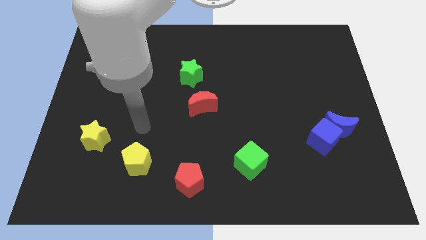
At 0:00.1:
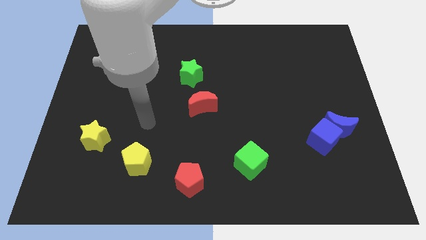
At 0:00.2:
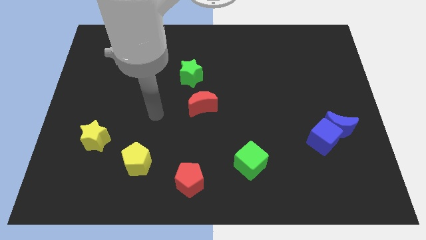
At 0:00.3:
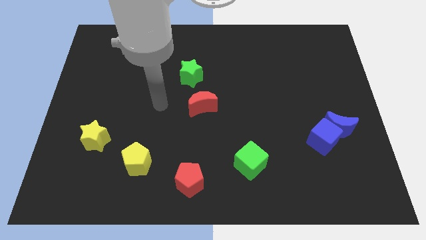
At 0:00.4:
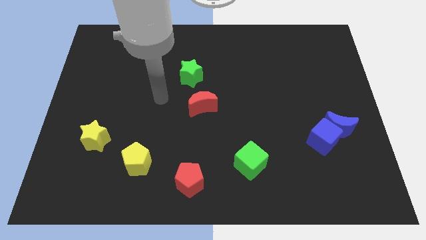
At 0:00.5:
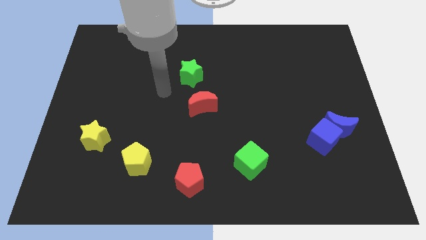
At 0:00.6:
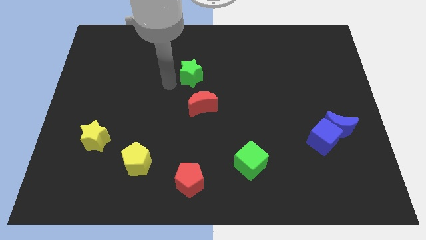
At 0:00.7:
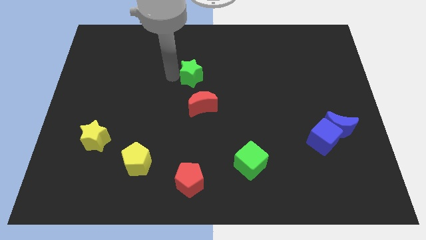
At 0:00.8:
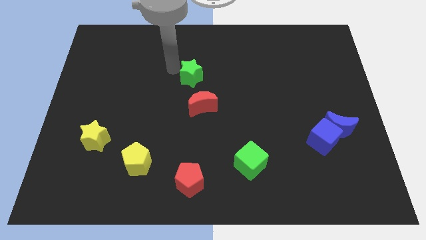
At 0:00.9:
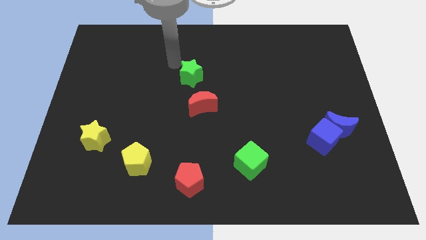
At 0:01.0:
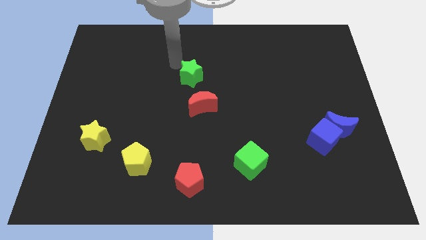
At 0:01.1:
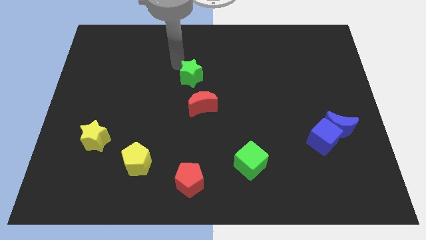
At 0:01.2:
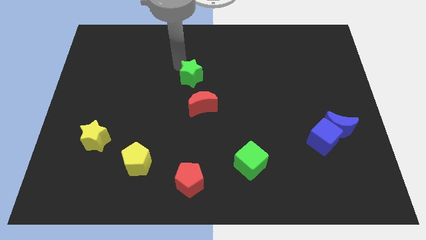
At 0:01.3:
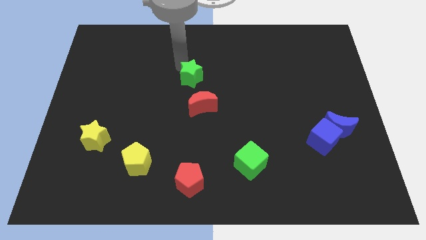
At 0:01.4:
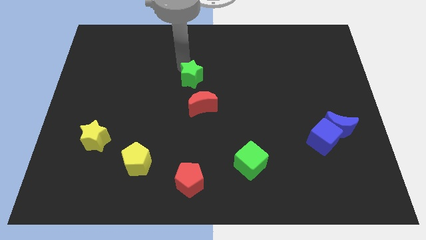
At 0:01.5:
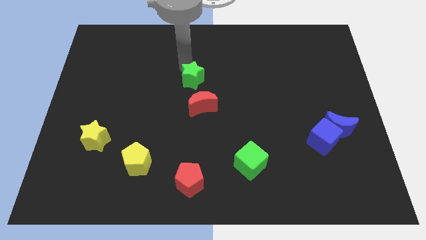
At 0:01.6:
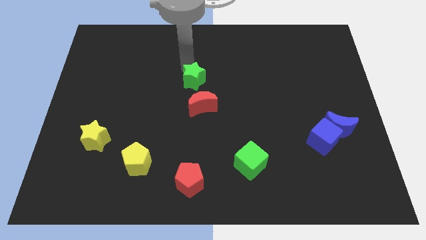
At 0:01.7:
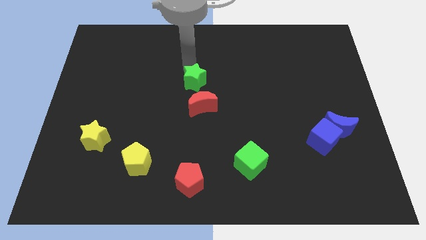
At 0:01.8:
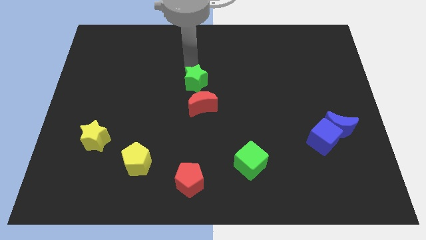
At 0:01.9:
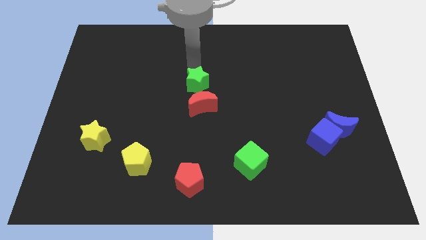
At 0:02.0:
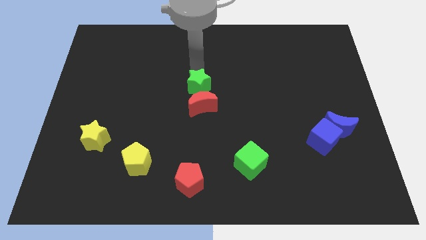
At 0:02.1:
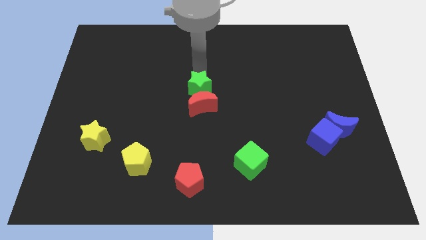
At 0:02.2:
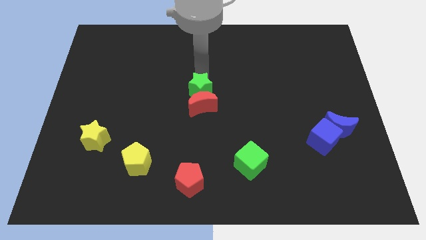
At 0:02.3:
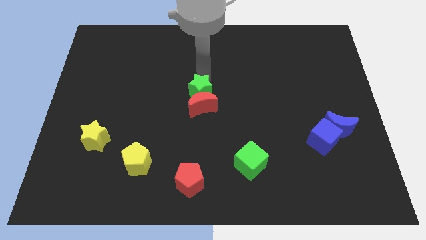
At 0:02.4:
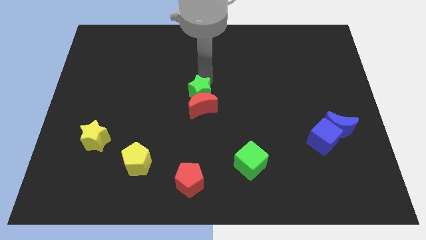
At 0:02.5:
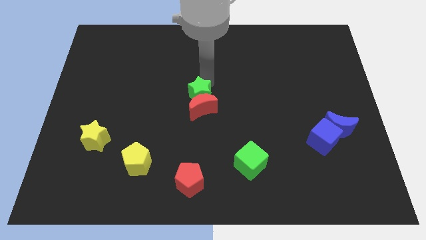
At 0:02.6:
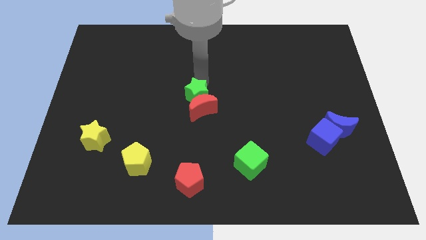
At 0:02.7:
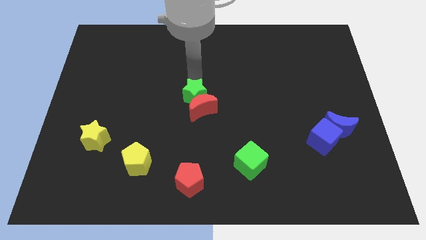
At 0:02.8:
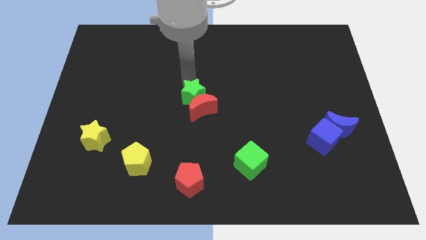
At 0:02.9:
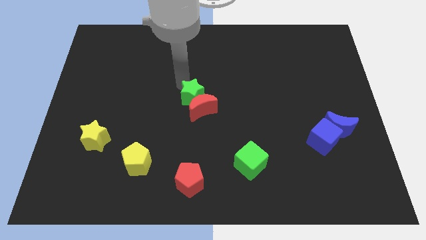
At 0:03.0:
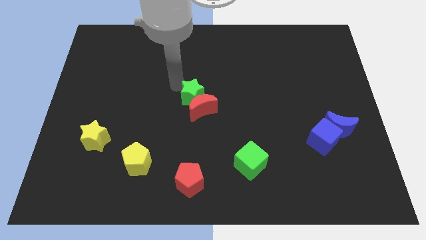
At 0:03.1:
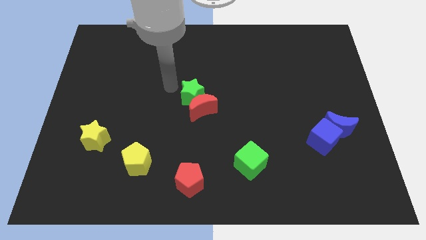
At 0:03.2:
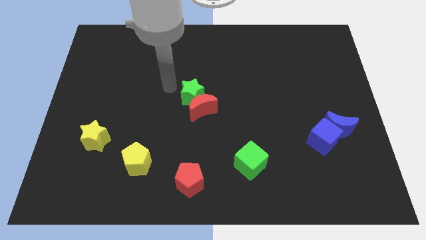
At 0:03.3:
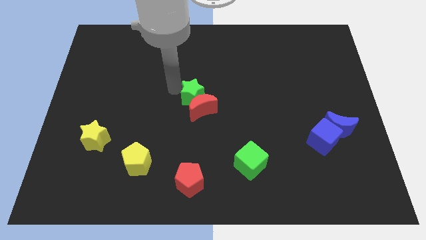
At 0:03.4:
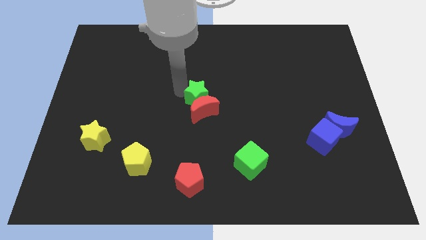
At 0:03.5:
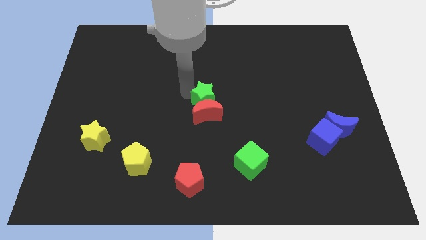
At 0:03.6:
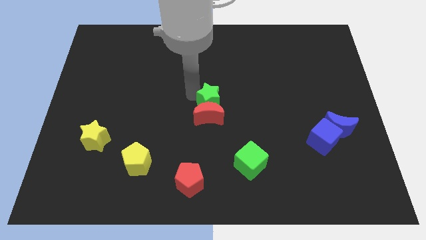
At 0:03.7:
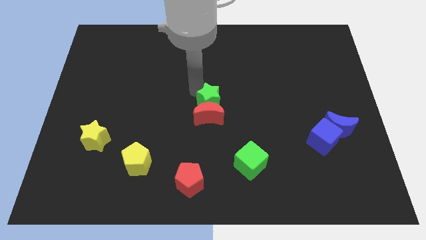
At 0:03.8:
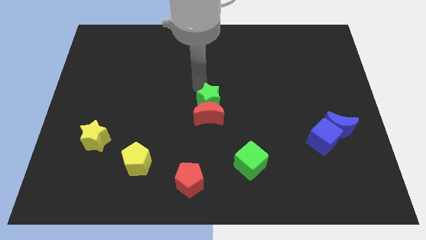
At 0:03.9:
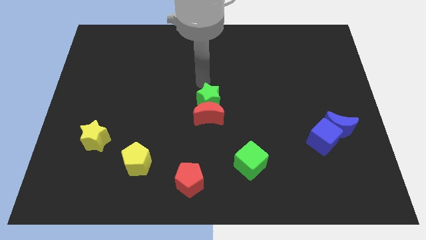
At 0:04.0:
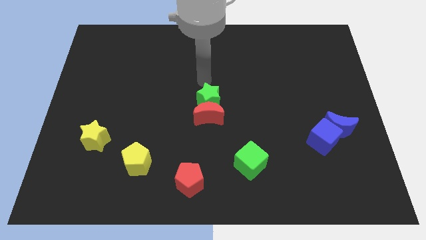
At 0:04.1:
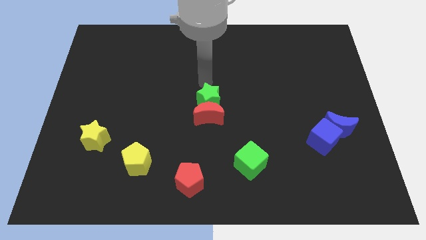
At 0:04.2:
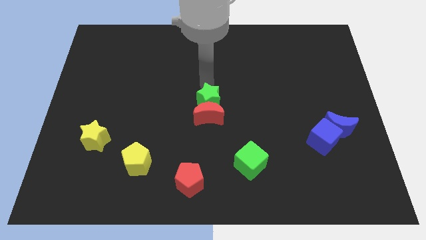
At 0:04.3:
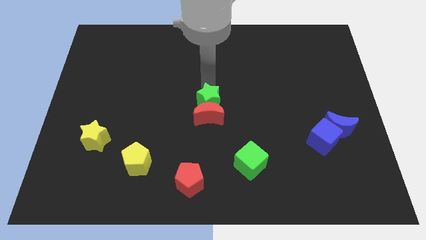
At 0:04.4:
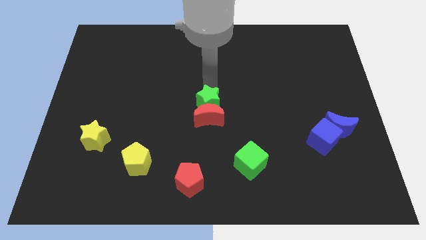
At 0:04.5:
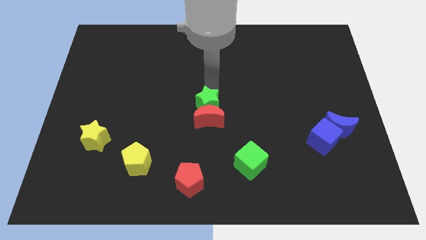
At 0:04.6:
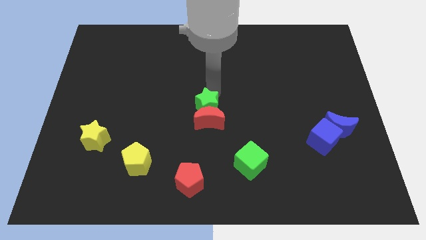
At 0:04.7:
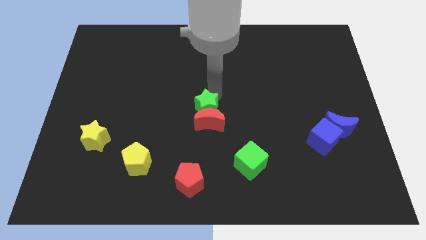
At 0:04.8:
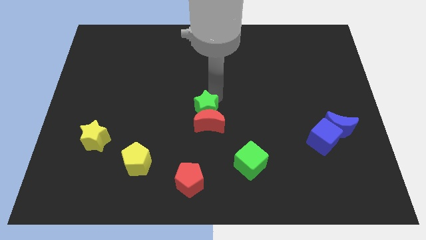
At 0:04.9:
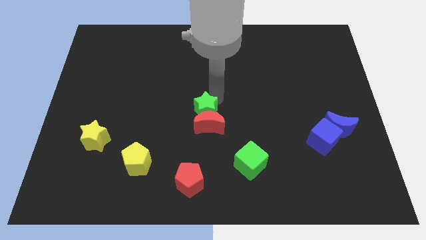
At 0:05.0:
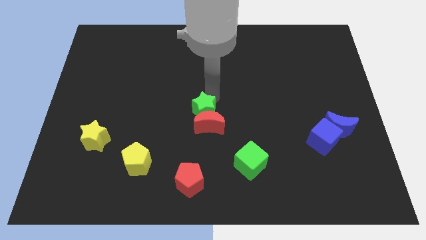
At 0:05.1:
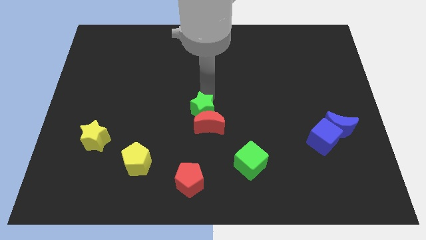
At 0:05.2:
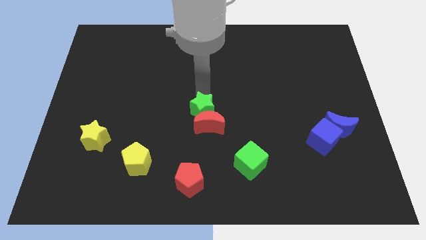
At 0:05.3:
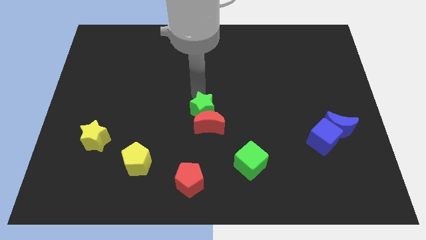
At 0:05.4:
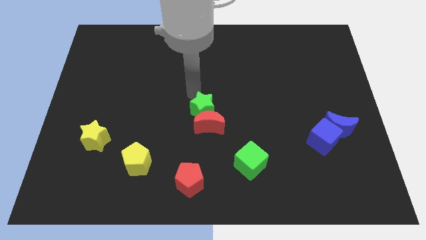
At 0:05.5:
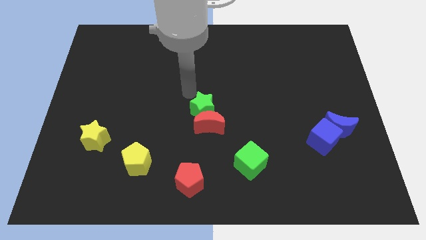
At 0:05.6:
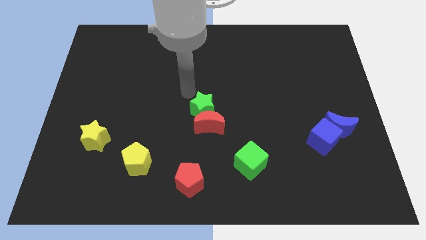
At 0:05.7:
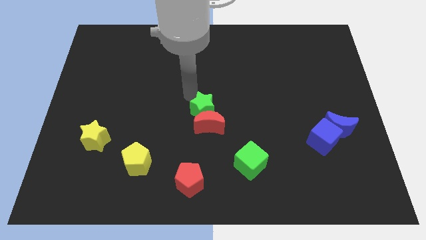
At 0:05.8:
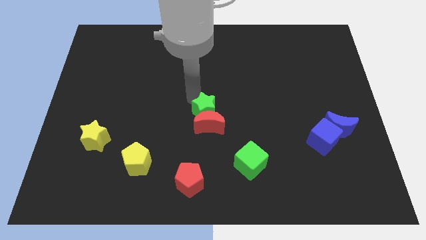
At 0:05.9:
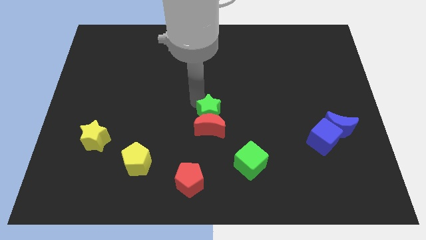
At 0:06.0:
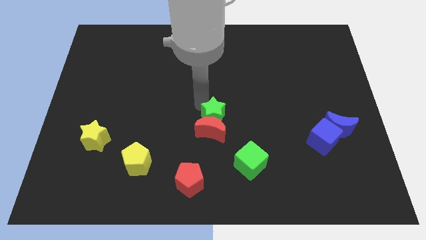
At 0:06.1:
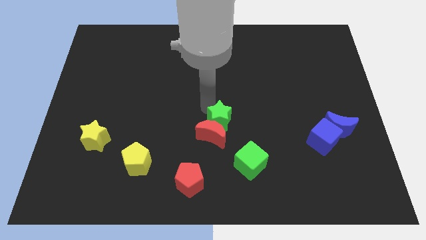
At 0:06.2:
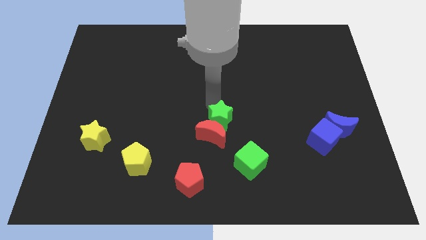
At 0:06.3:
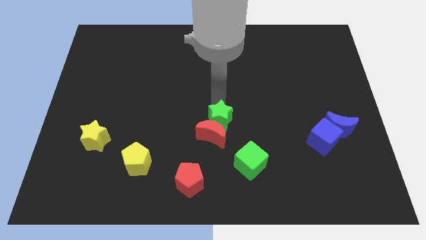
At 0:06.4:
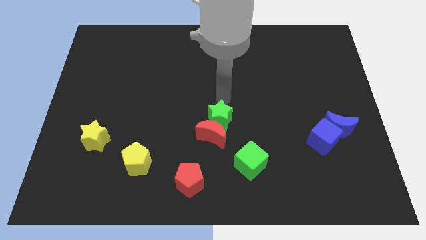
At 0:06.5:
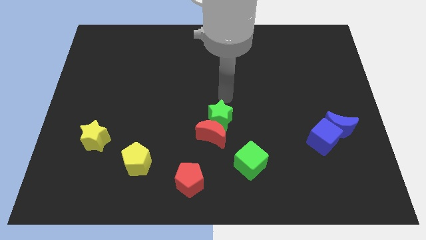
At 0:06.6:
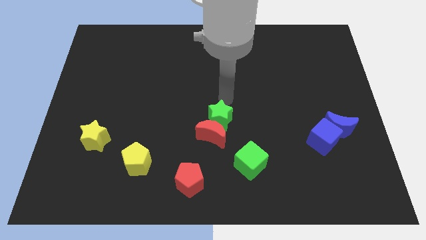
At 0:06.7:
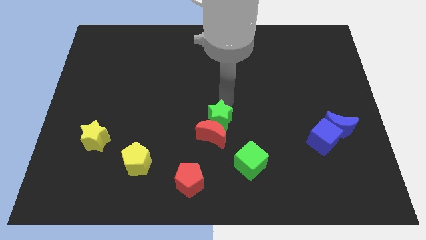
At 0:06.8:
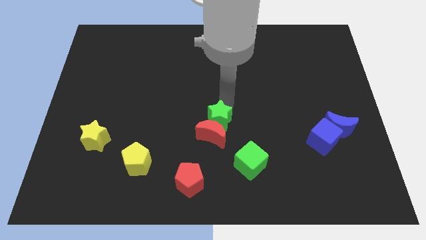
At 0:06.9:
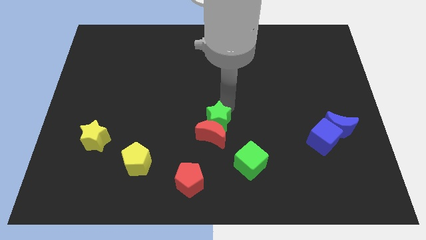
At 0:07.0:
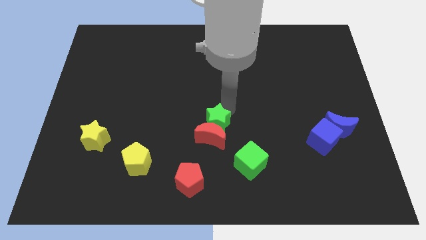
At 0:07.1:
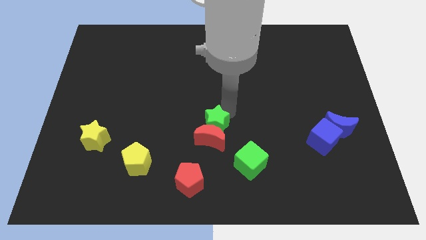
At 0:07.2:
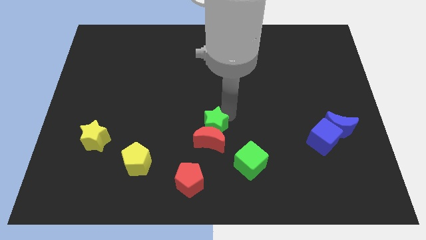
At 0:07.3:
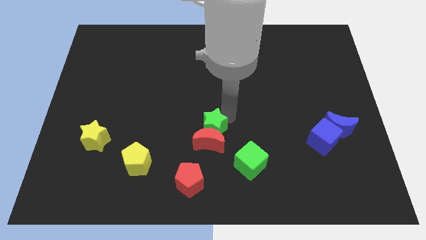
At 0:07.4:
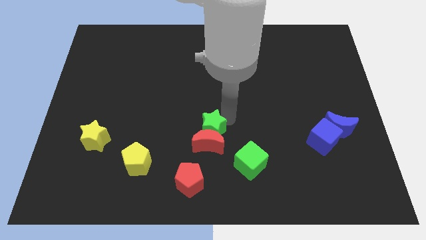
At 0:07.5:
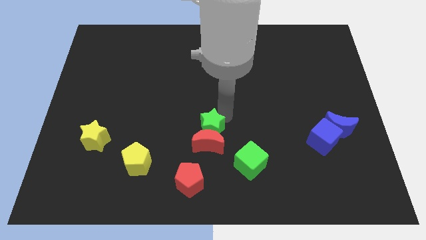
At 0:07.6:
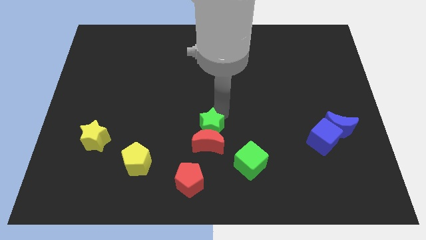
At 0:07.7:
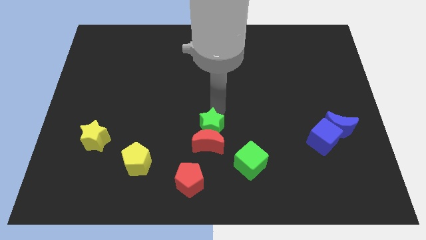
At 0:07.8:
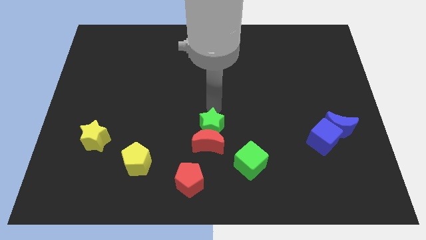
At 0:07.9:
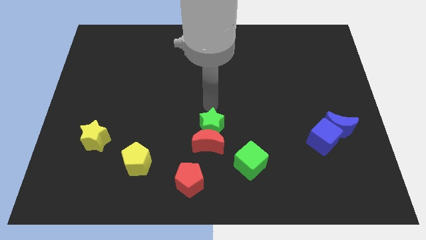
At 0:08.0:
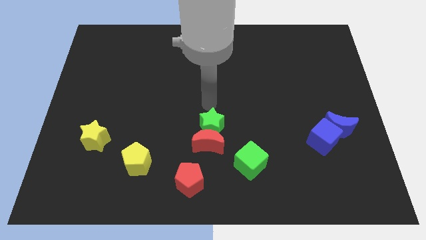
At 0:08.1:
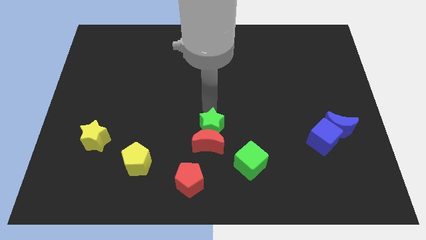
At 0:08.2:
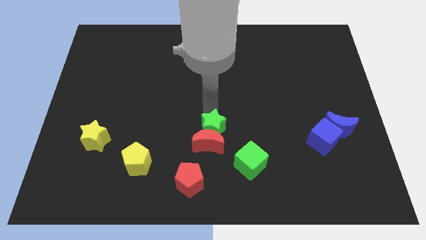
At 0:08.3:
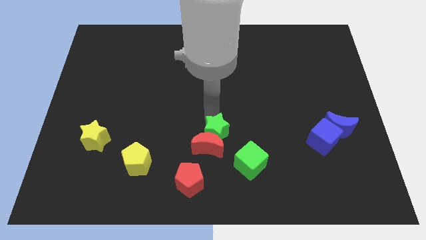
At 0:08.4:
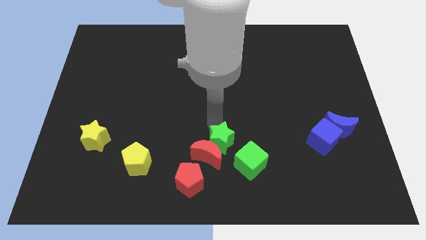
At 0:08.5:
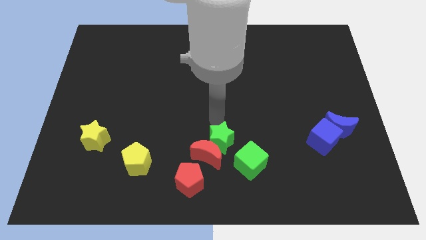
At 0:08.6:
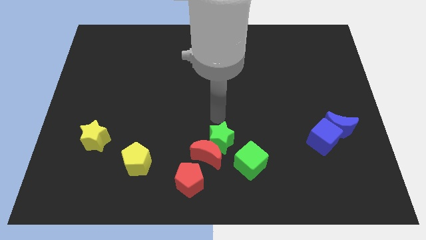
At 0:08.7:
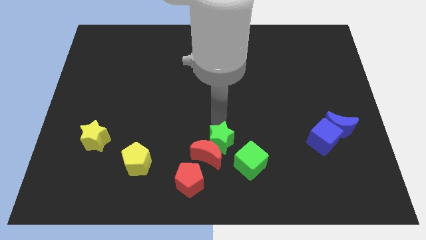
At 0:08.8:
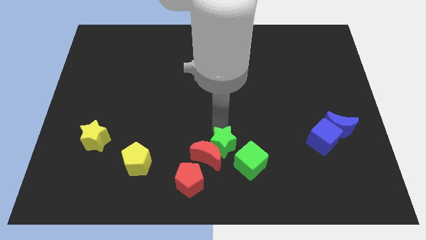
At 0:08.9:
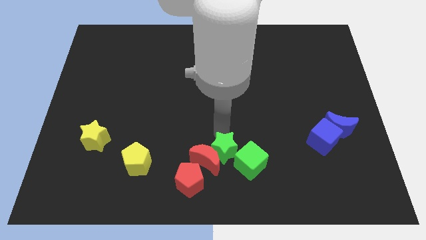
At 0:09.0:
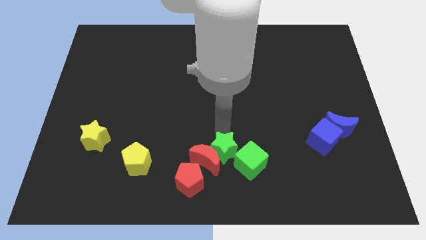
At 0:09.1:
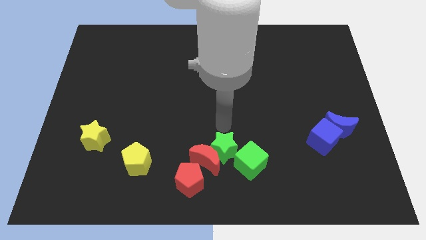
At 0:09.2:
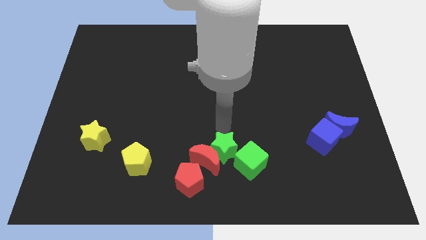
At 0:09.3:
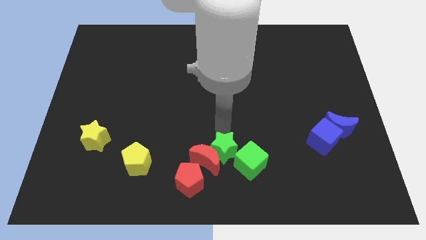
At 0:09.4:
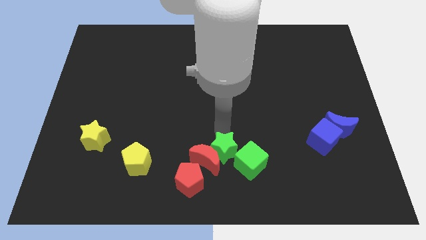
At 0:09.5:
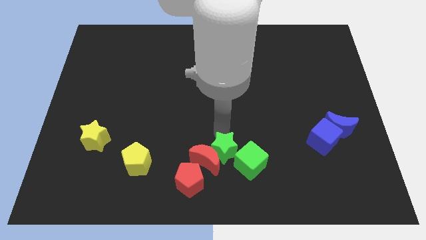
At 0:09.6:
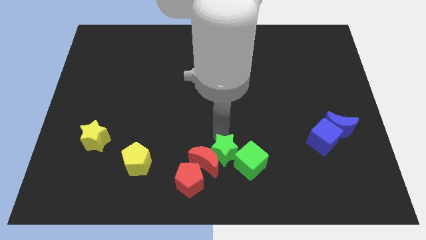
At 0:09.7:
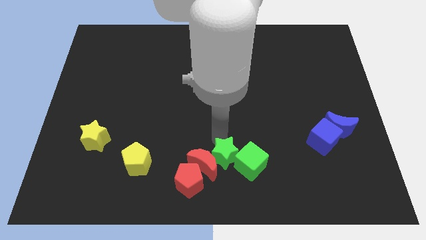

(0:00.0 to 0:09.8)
slide the green star to the bottom
